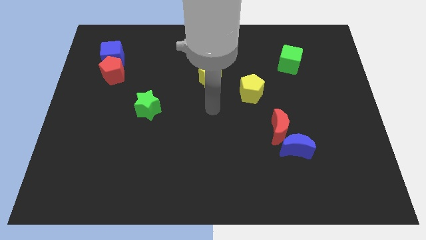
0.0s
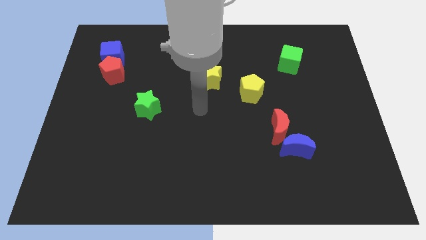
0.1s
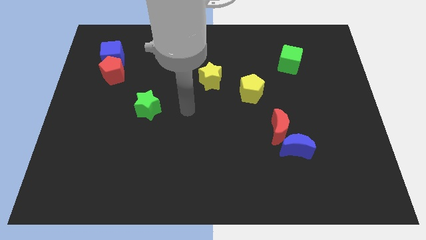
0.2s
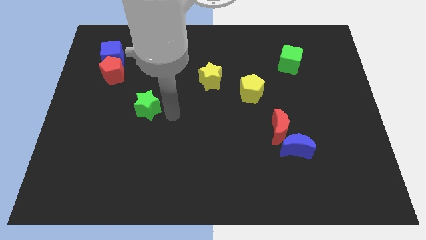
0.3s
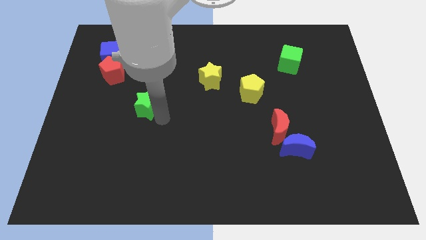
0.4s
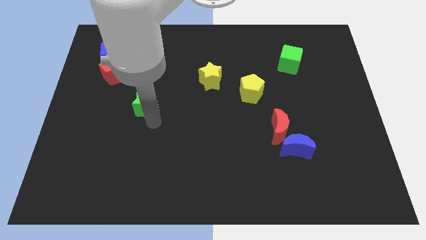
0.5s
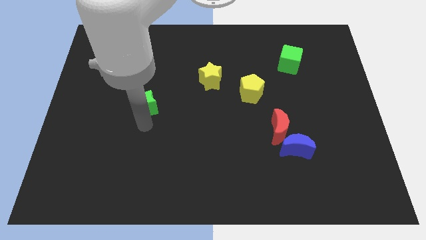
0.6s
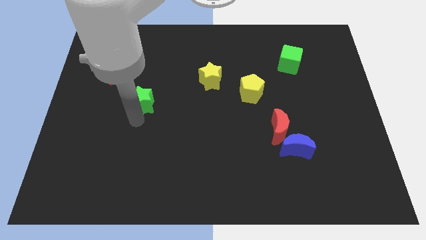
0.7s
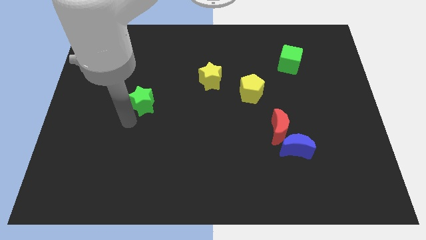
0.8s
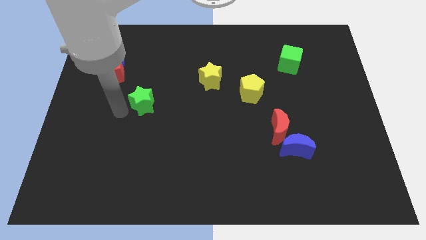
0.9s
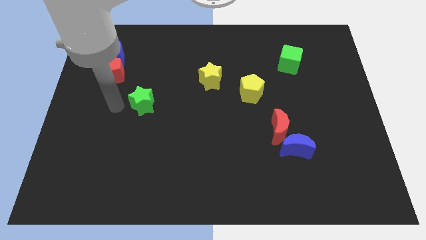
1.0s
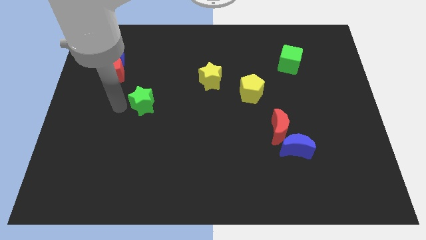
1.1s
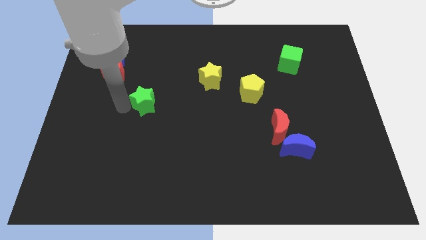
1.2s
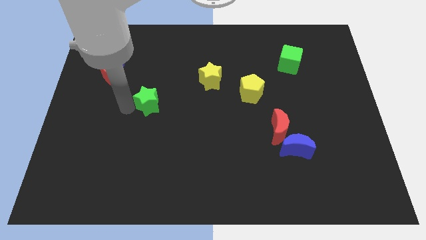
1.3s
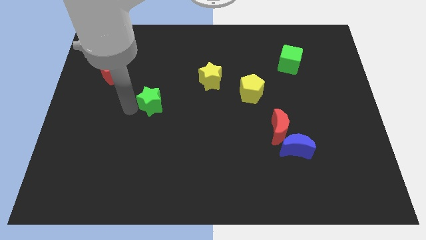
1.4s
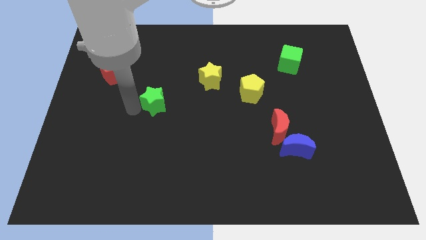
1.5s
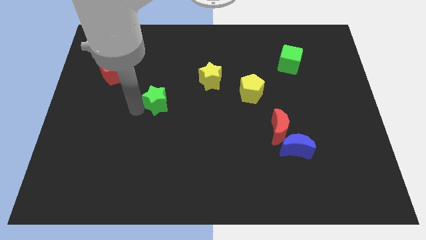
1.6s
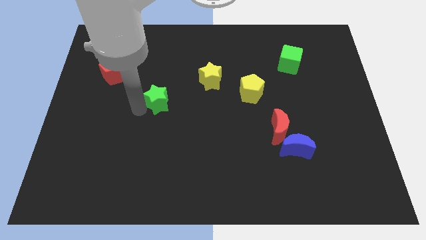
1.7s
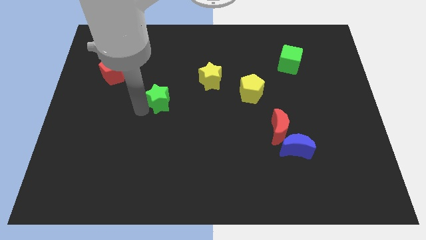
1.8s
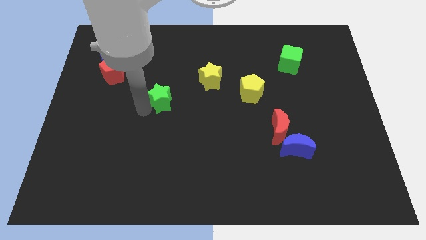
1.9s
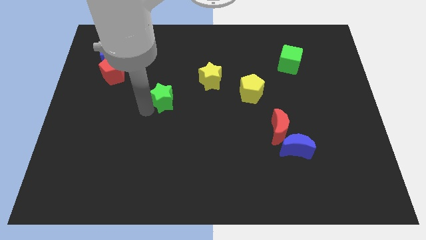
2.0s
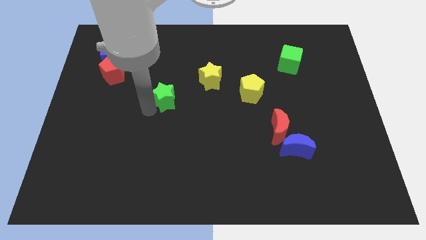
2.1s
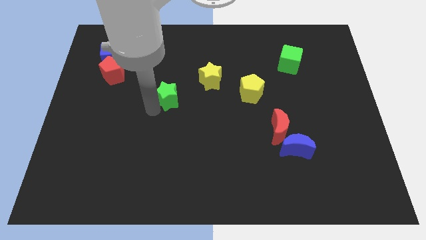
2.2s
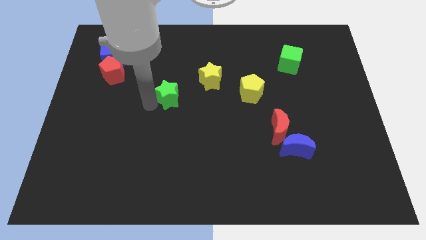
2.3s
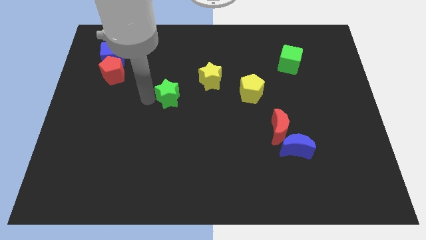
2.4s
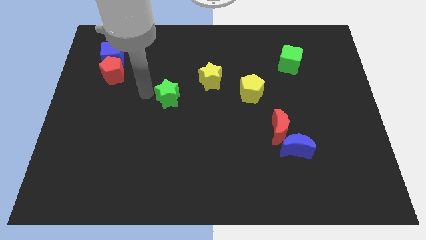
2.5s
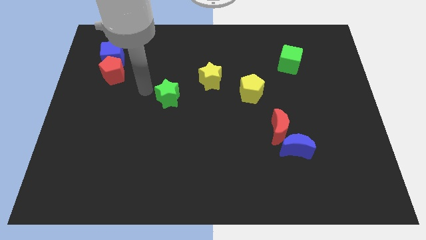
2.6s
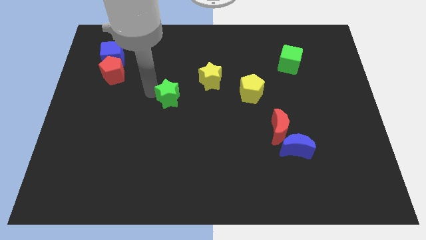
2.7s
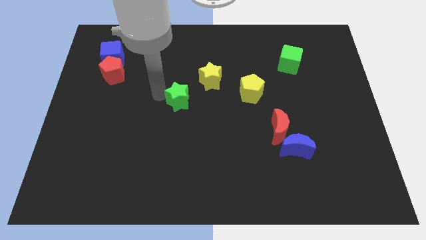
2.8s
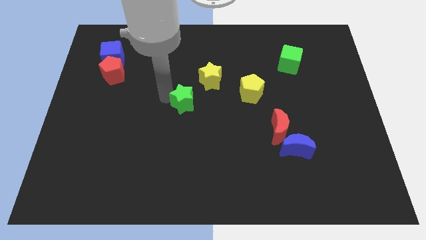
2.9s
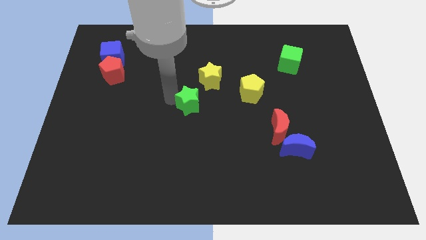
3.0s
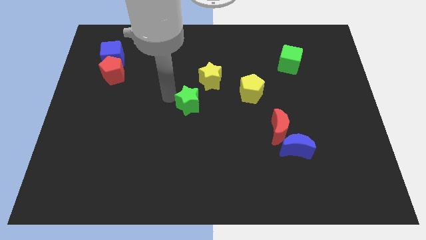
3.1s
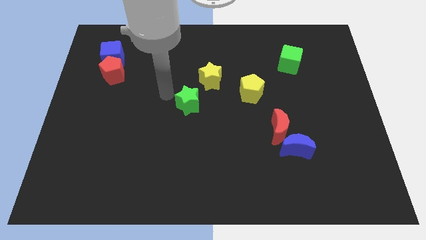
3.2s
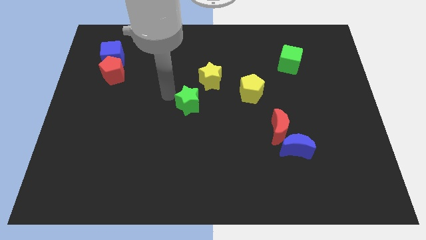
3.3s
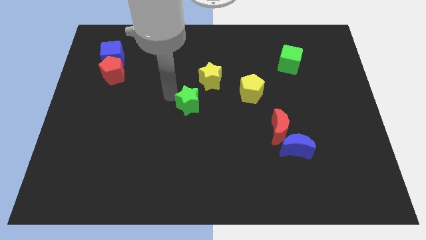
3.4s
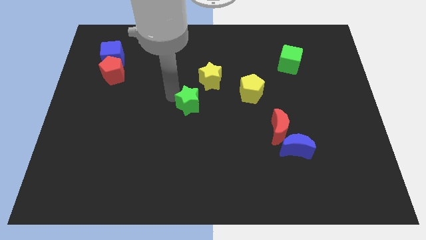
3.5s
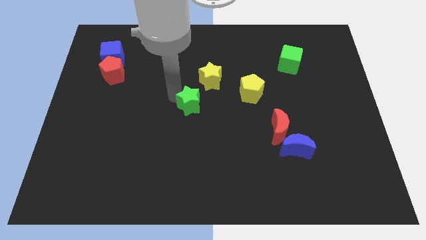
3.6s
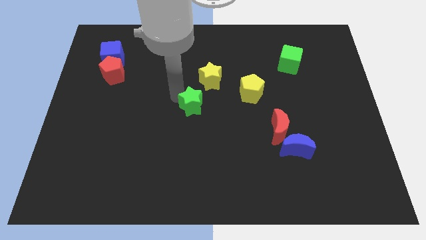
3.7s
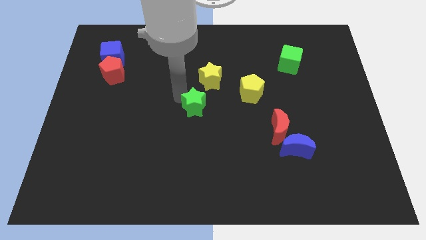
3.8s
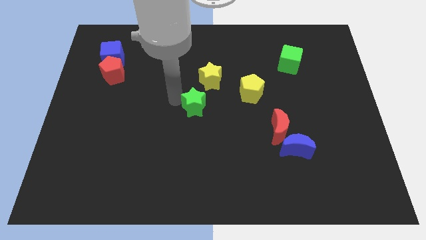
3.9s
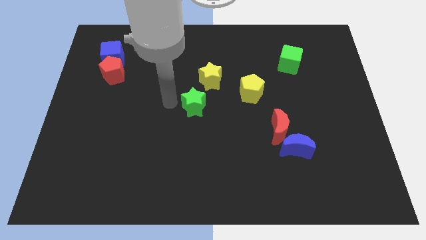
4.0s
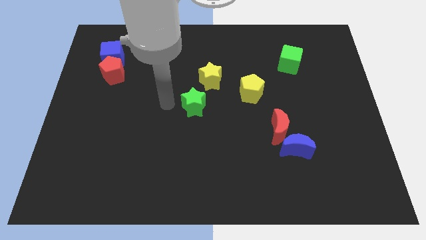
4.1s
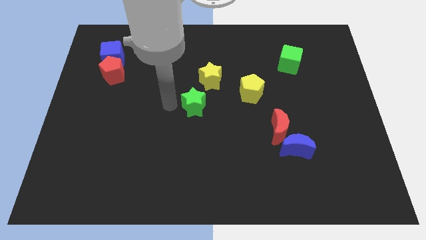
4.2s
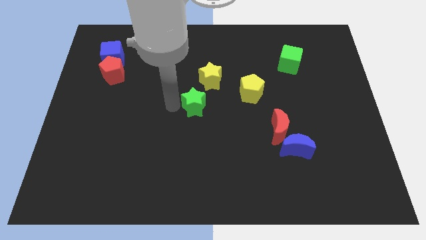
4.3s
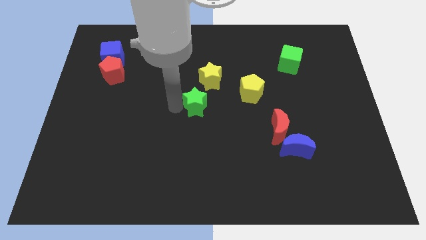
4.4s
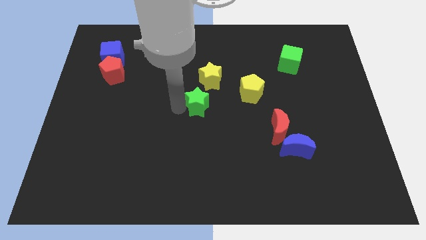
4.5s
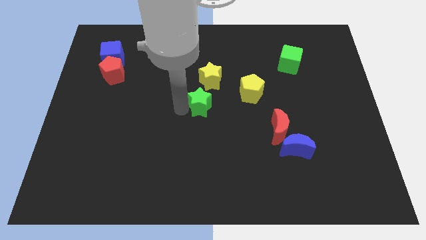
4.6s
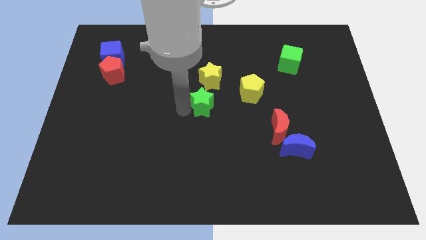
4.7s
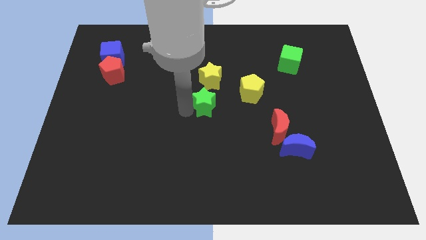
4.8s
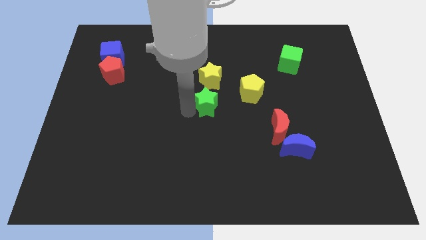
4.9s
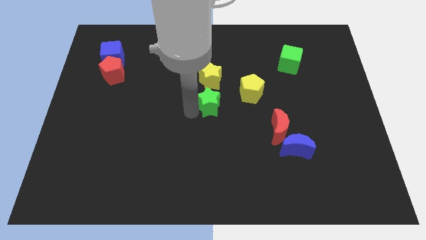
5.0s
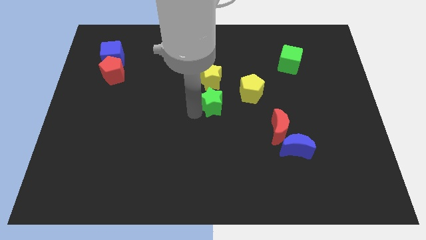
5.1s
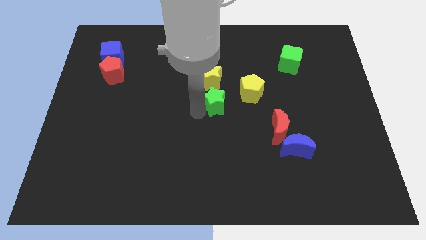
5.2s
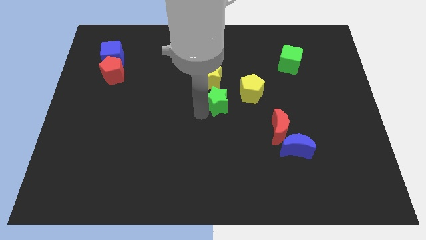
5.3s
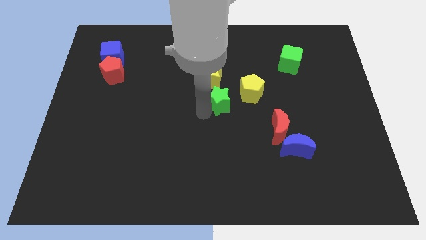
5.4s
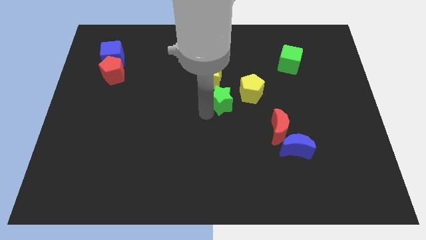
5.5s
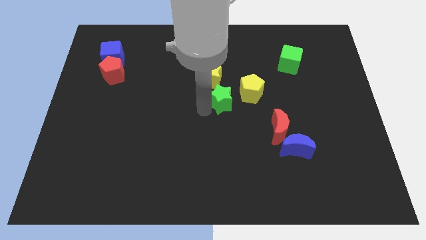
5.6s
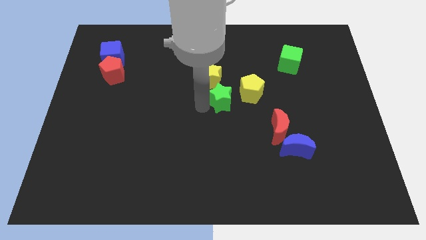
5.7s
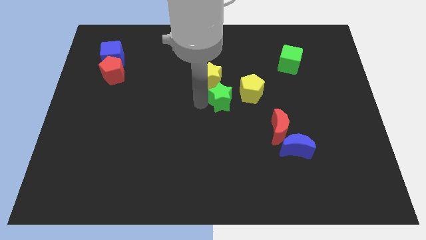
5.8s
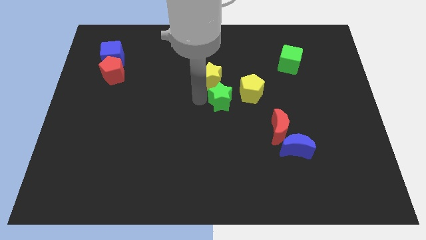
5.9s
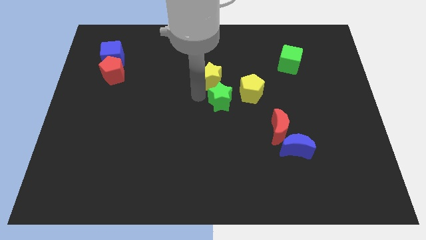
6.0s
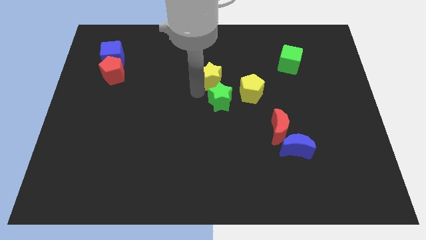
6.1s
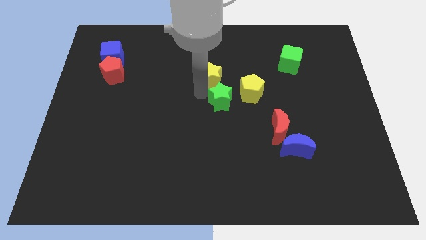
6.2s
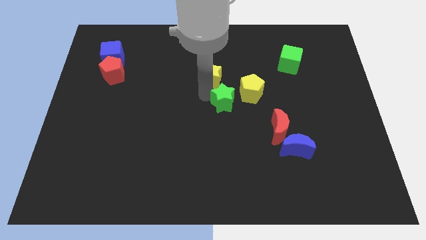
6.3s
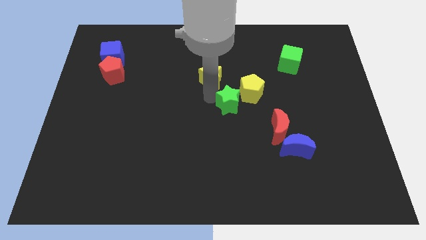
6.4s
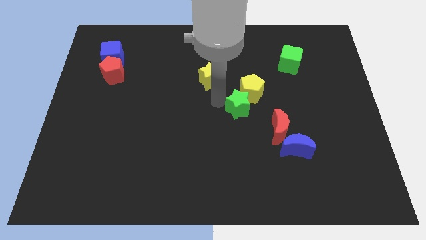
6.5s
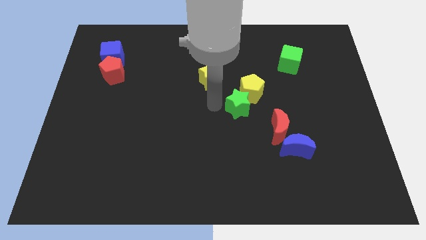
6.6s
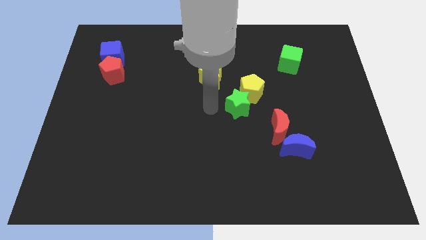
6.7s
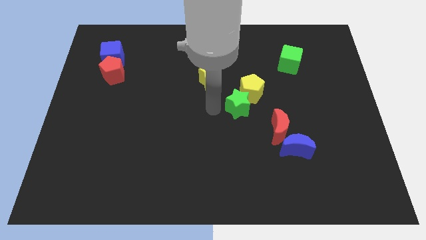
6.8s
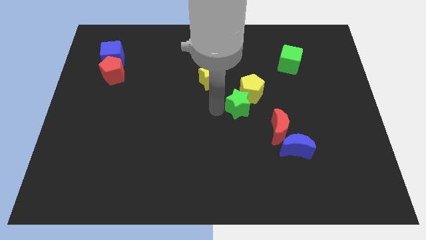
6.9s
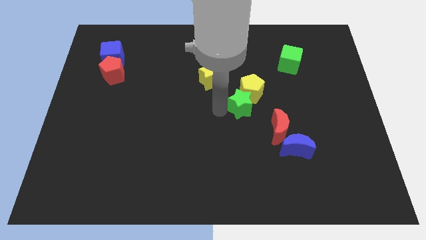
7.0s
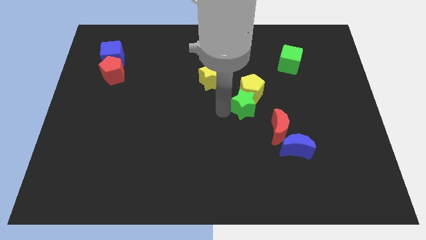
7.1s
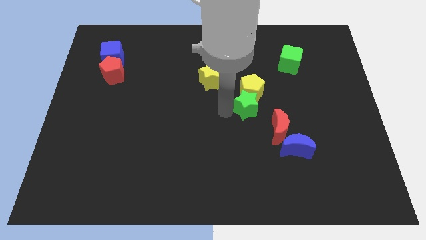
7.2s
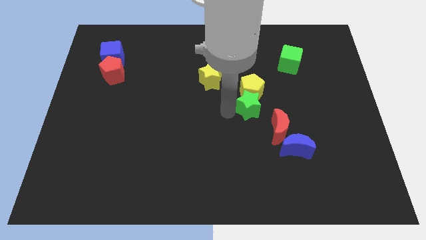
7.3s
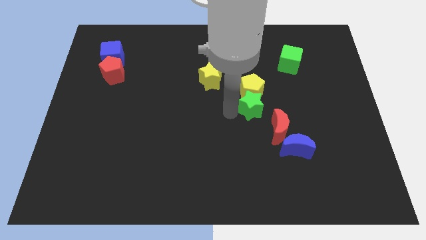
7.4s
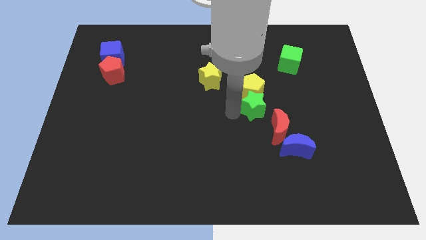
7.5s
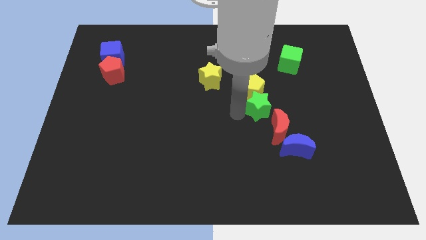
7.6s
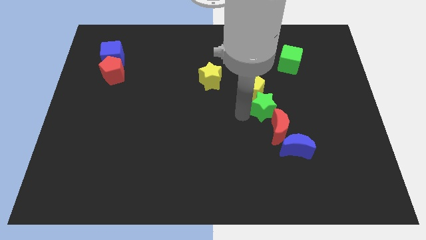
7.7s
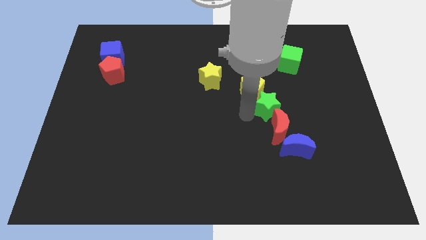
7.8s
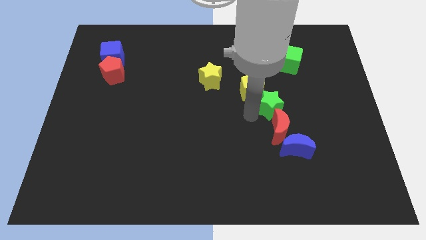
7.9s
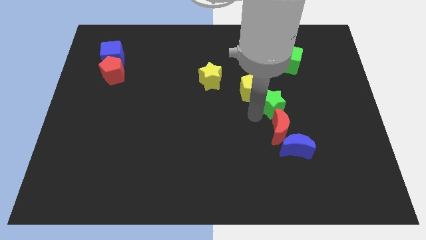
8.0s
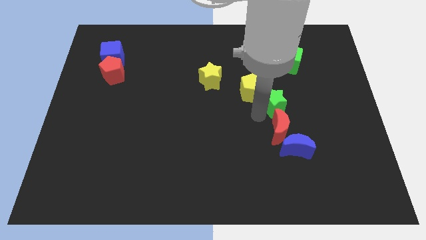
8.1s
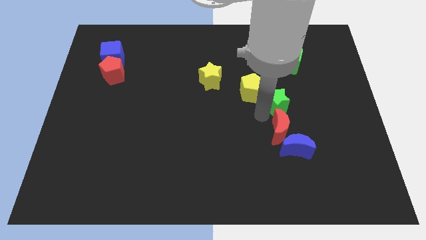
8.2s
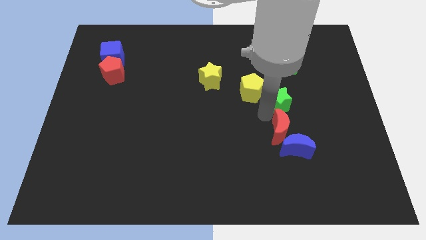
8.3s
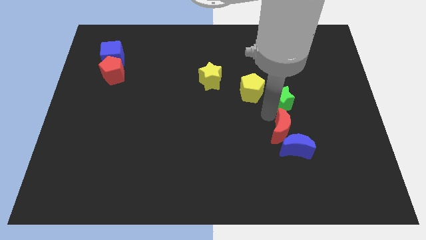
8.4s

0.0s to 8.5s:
slide the green star to the bottom side of the green cube
